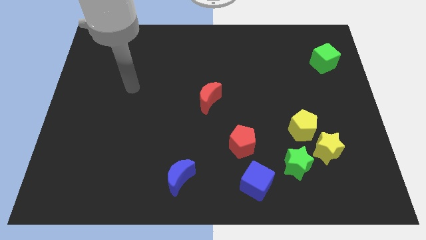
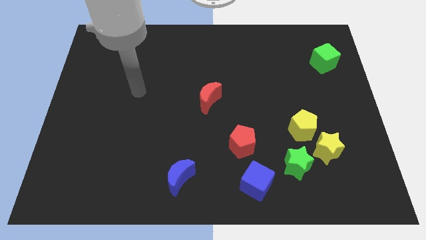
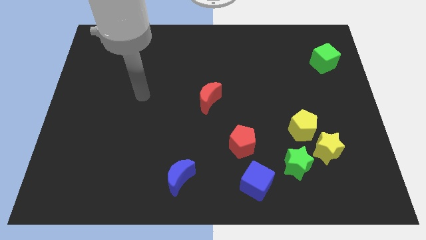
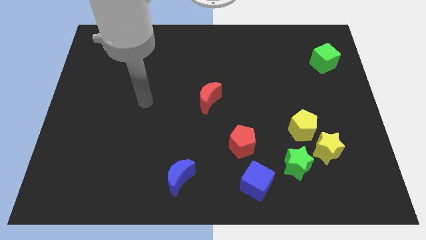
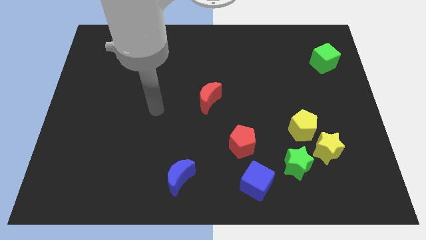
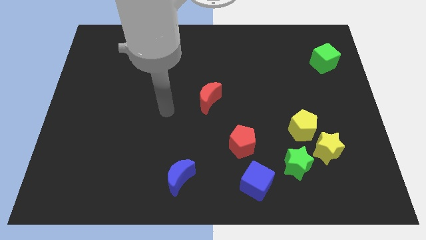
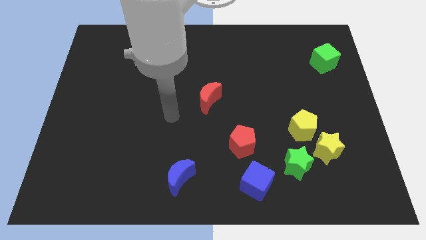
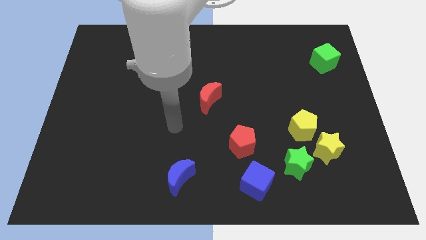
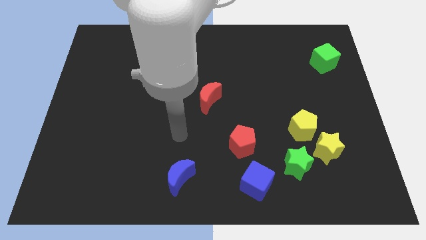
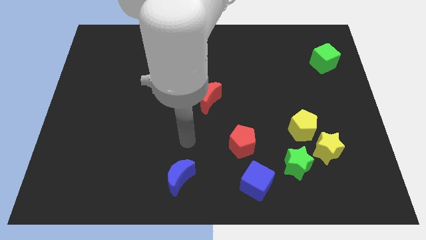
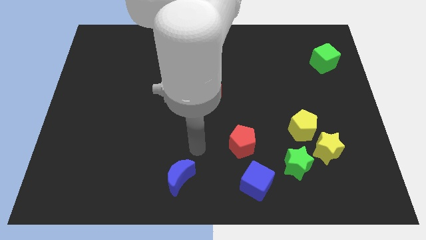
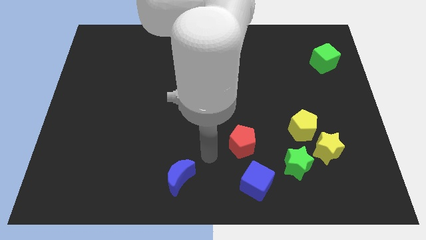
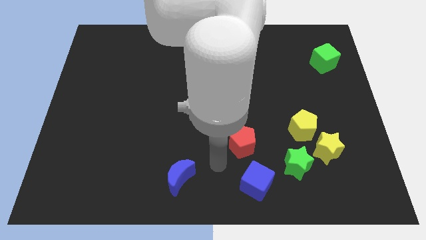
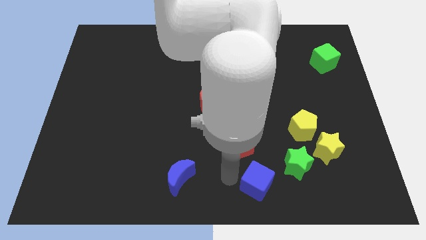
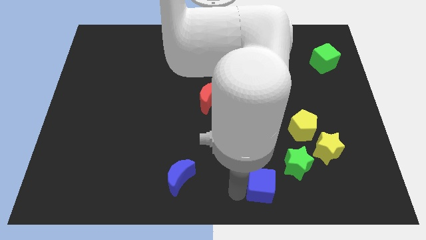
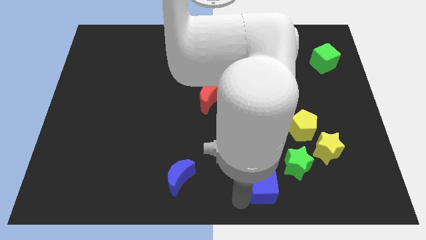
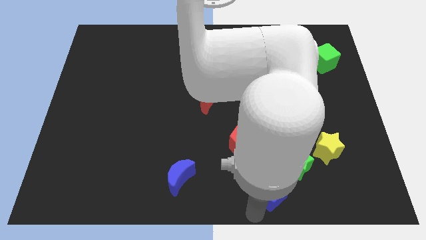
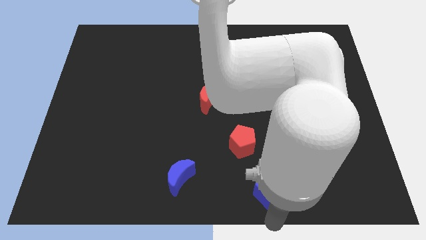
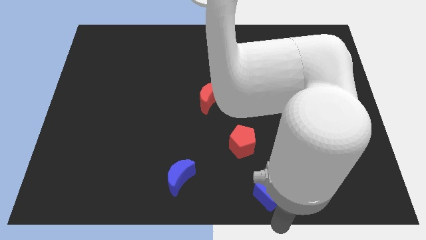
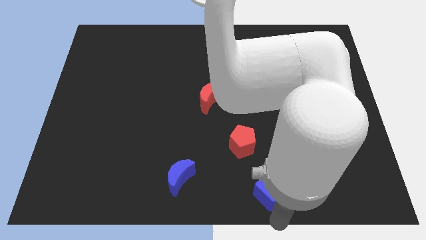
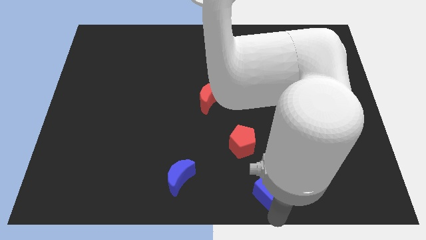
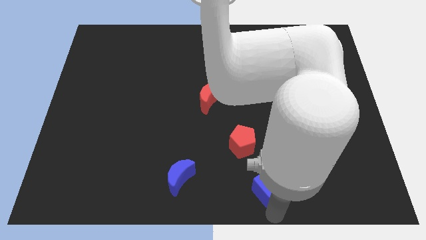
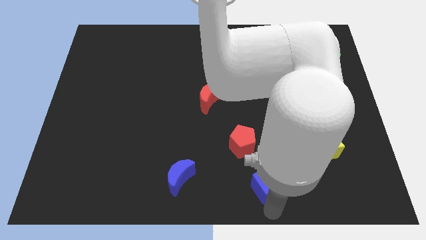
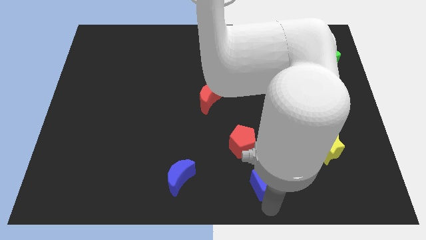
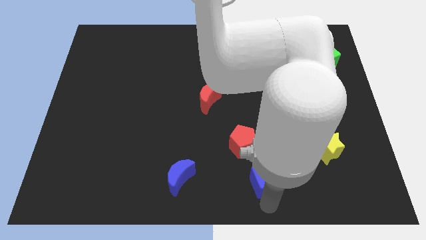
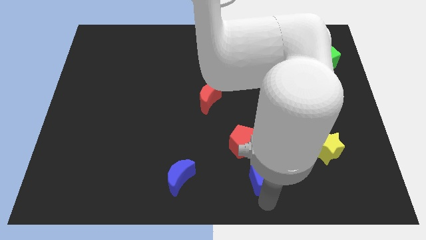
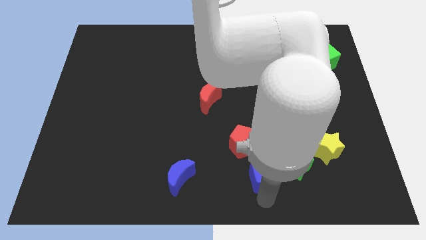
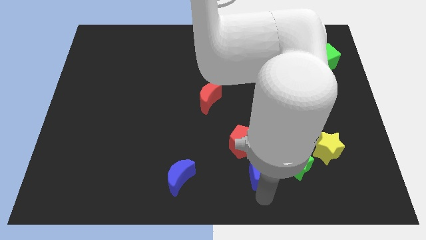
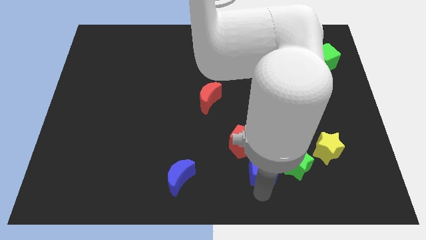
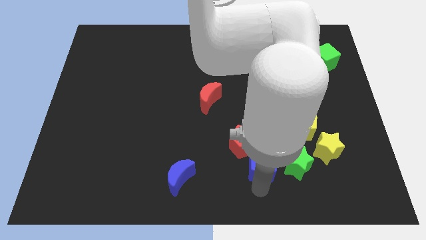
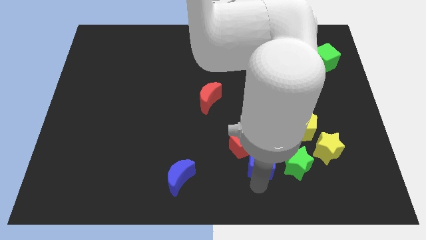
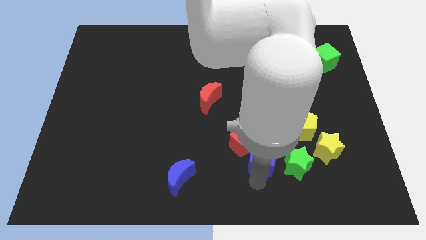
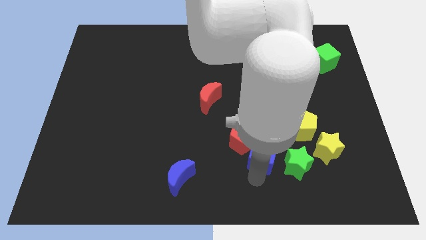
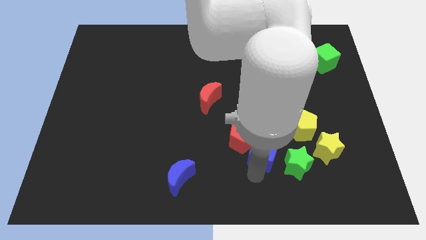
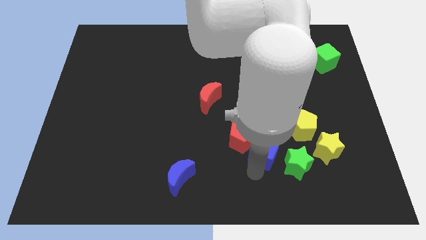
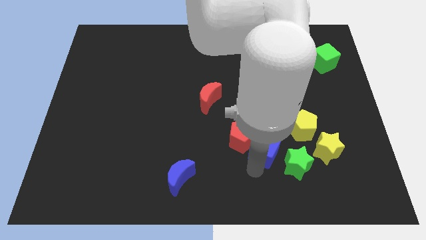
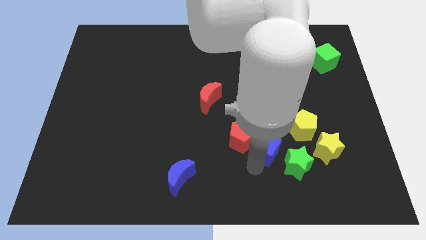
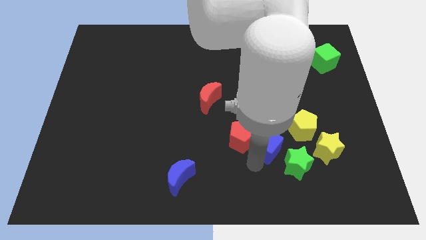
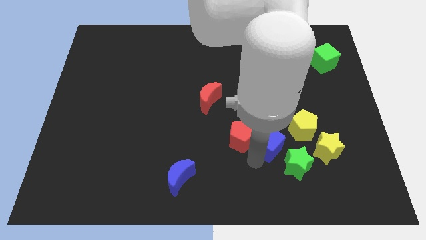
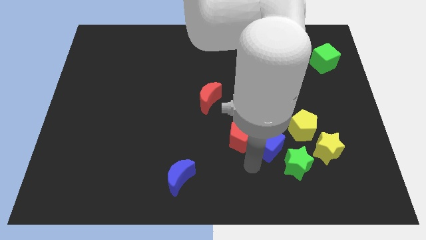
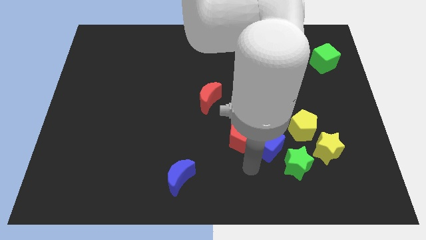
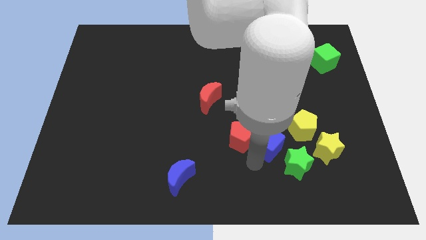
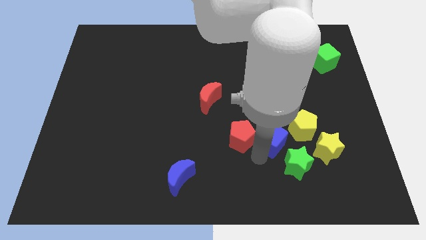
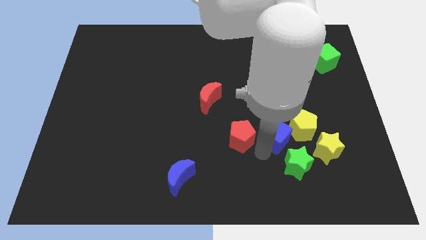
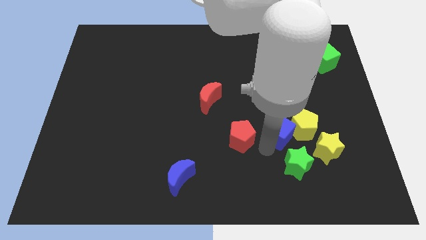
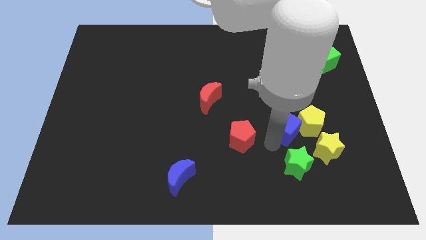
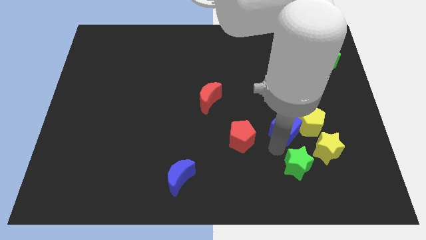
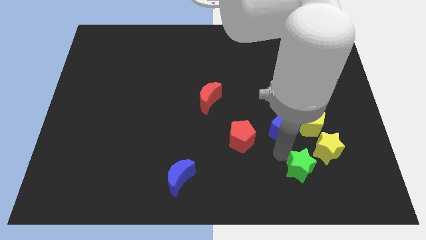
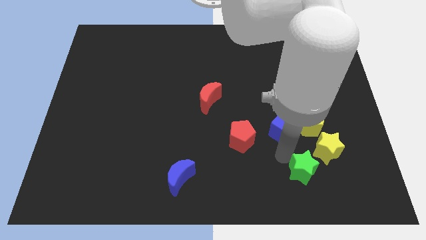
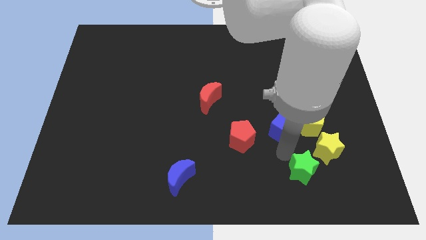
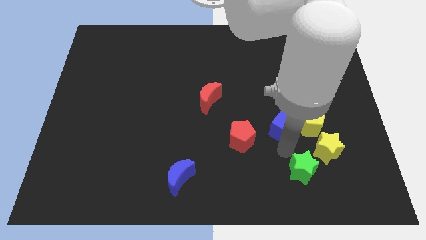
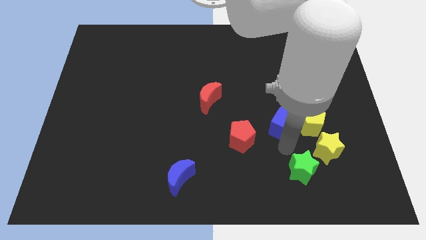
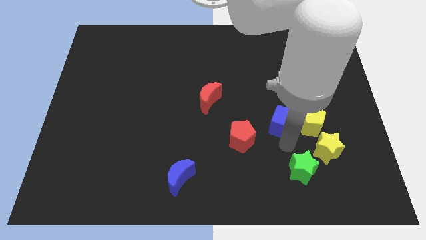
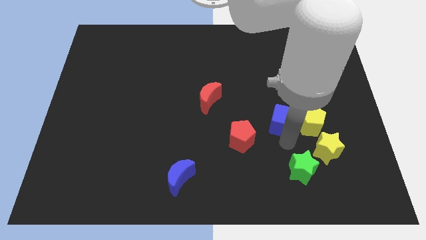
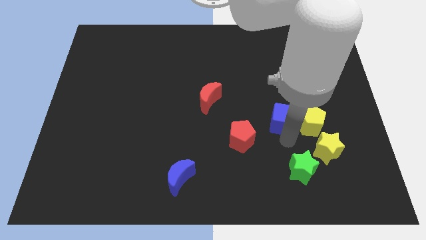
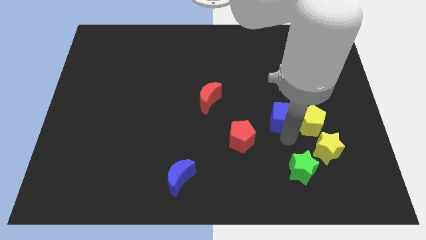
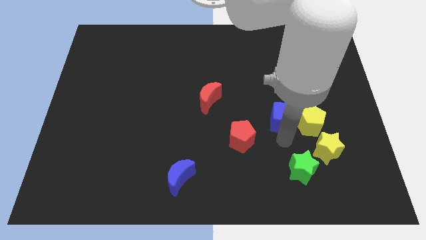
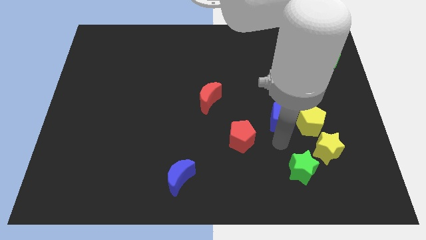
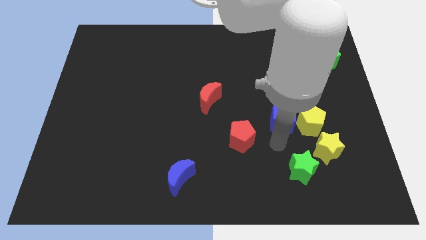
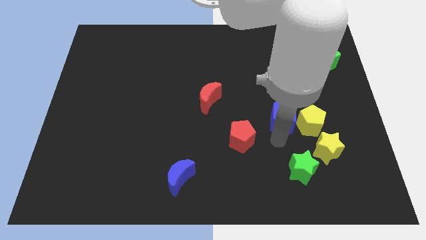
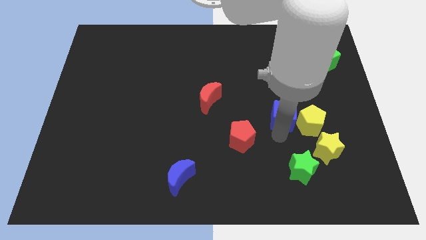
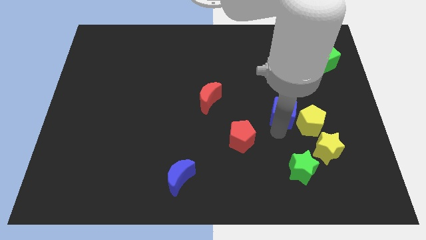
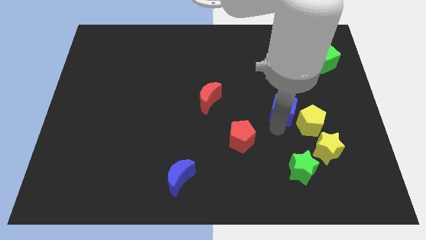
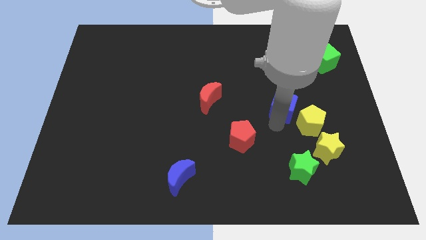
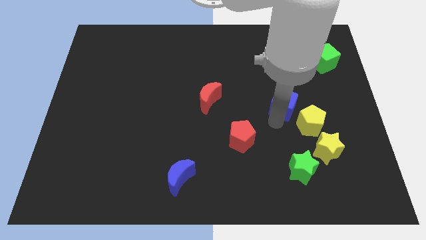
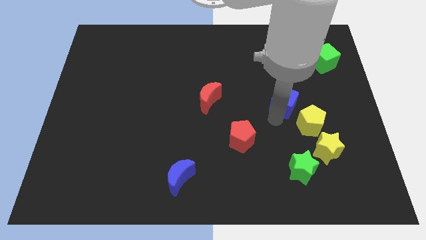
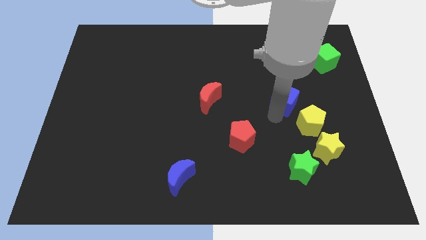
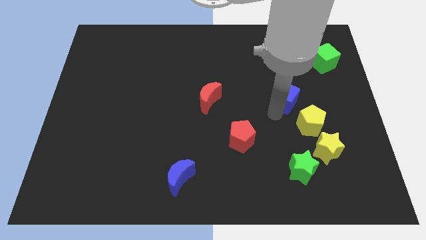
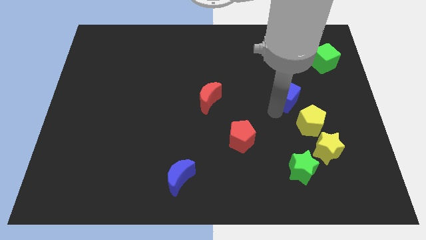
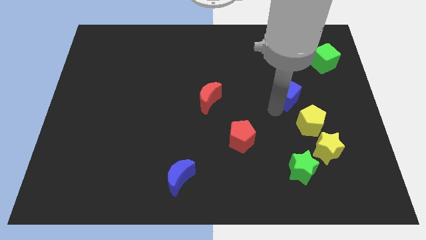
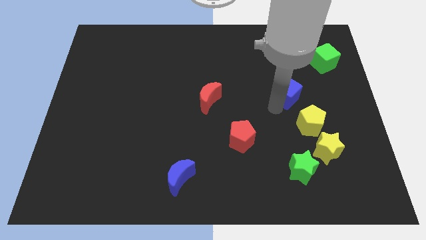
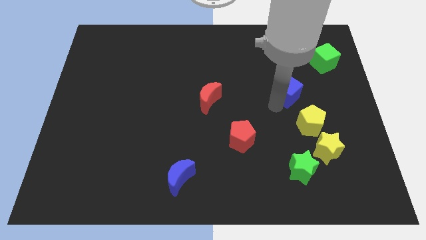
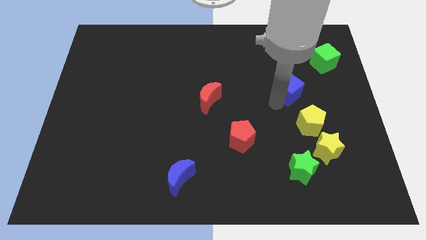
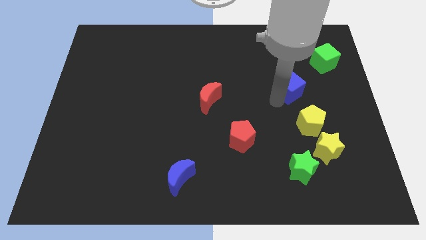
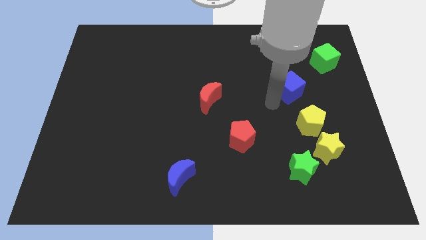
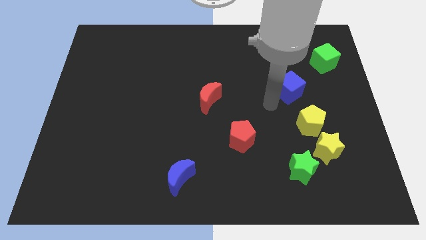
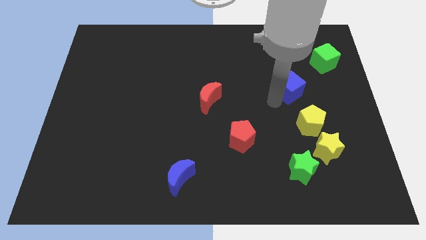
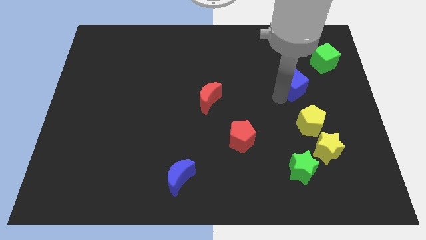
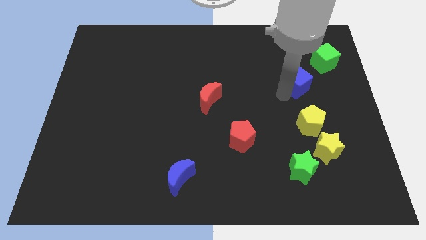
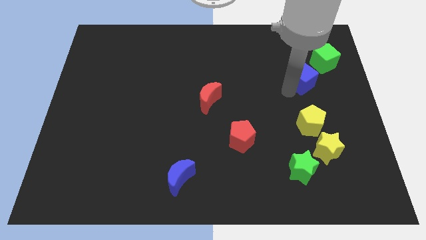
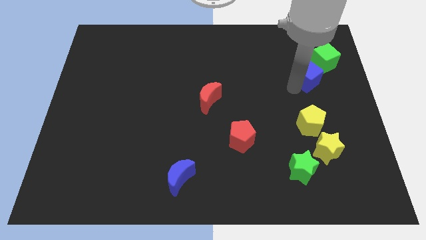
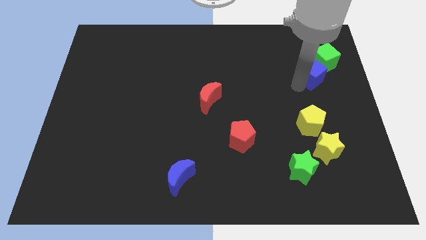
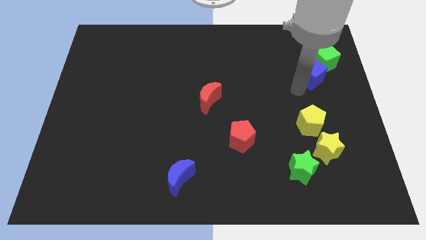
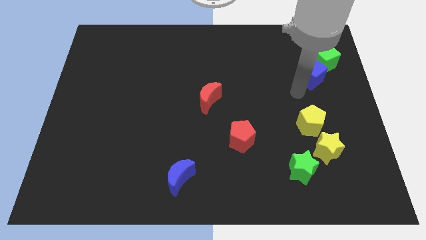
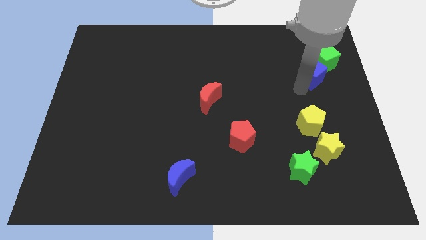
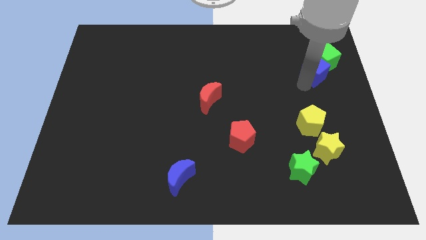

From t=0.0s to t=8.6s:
push the blue cube towards the green cube
